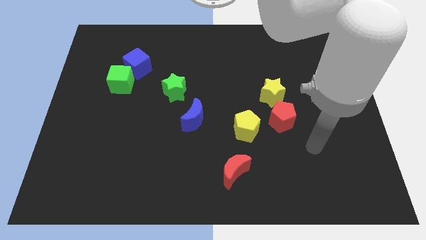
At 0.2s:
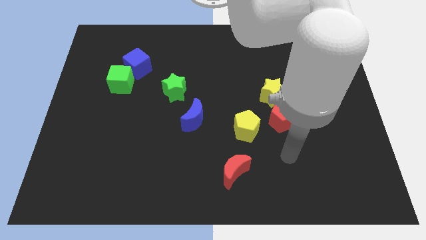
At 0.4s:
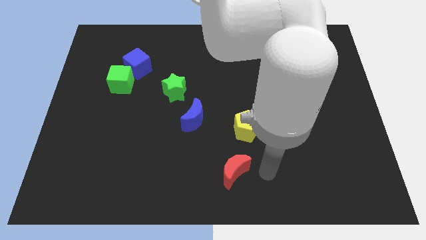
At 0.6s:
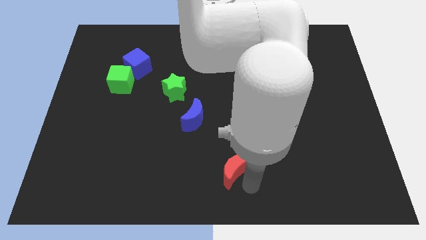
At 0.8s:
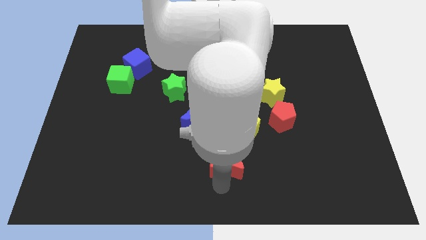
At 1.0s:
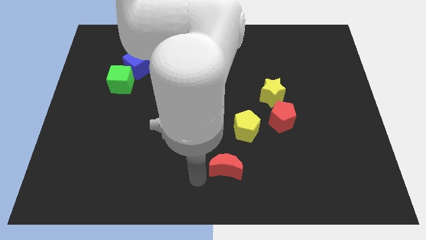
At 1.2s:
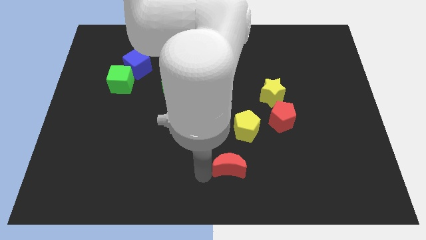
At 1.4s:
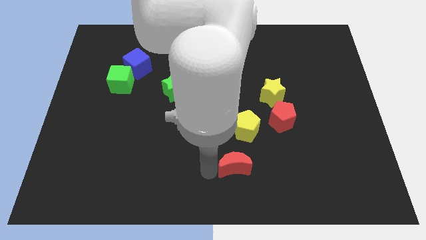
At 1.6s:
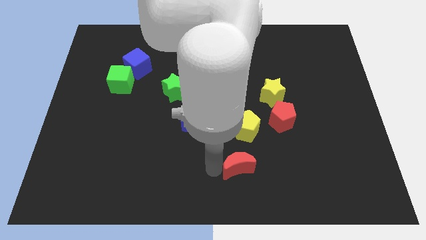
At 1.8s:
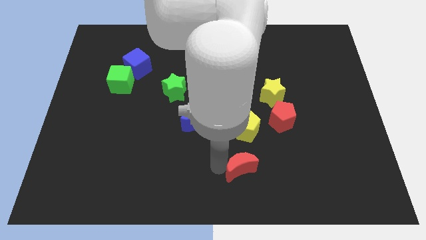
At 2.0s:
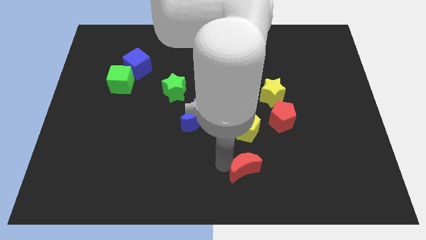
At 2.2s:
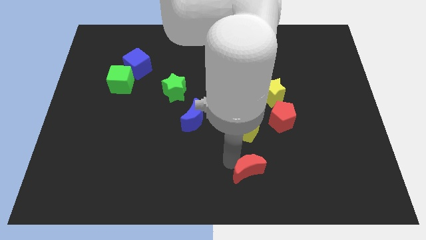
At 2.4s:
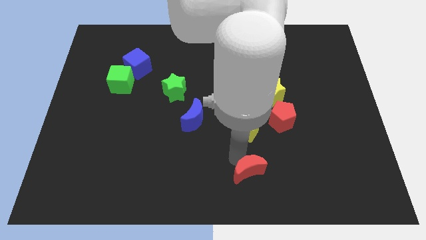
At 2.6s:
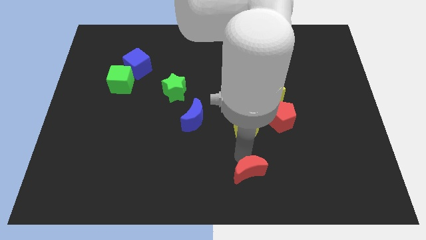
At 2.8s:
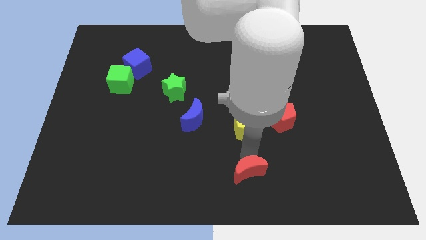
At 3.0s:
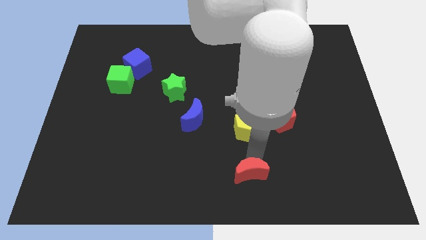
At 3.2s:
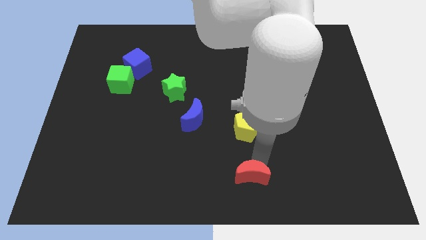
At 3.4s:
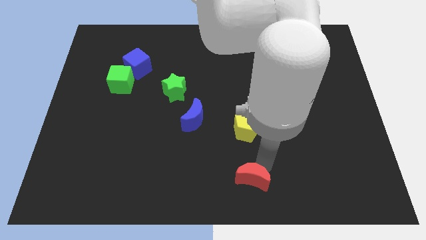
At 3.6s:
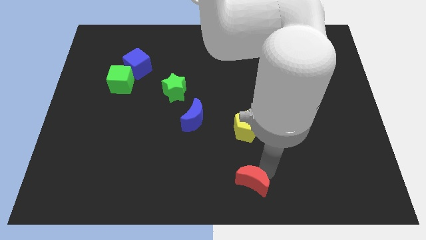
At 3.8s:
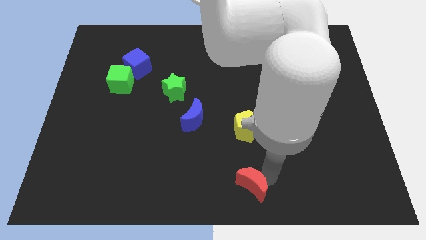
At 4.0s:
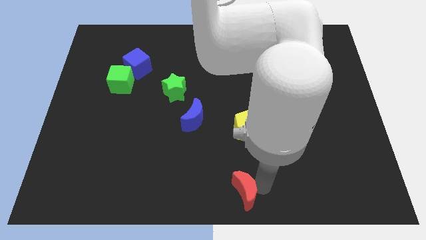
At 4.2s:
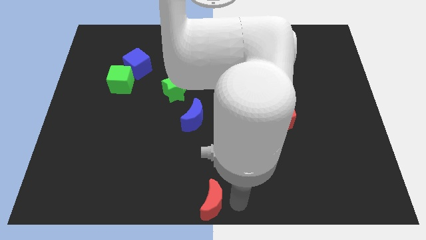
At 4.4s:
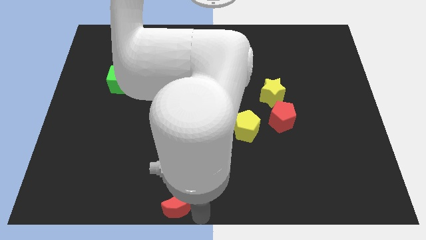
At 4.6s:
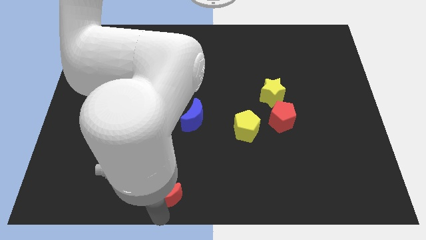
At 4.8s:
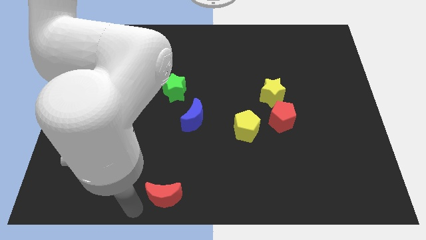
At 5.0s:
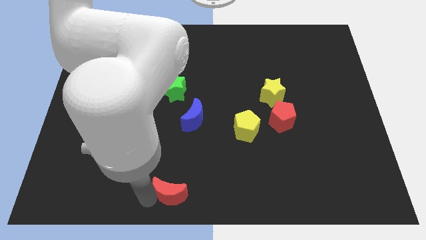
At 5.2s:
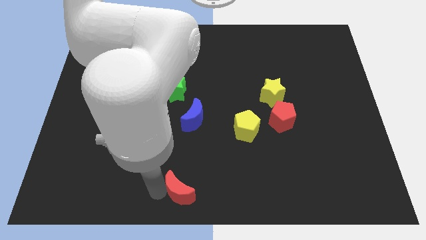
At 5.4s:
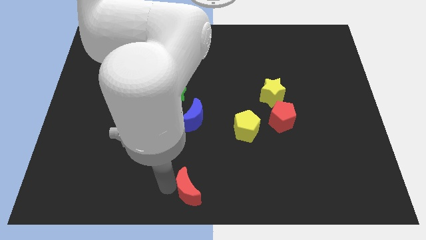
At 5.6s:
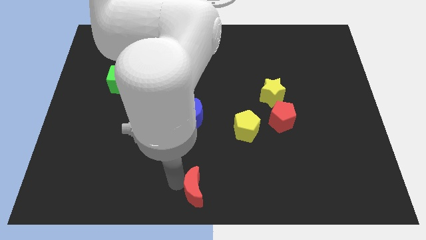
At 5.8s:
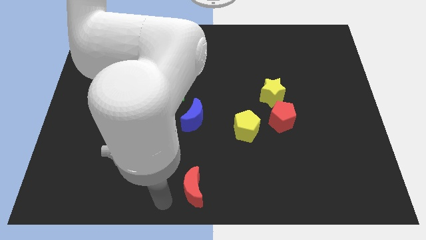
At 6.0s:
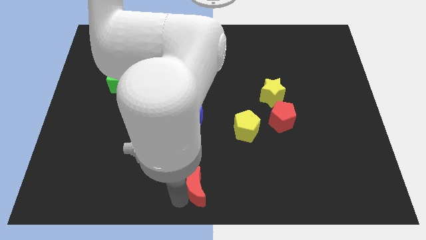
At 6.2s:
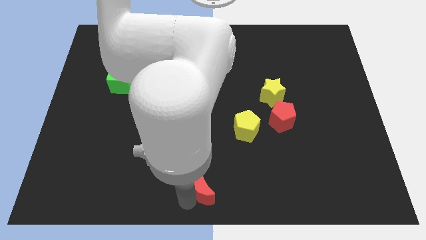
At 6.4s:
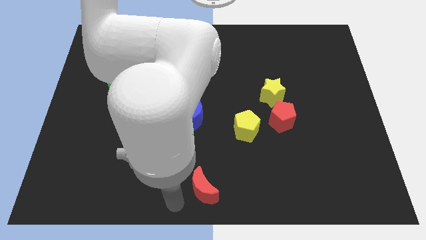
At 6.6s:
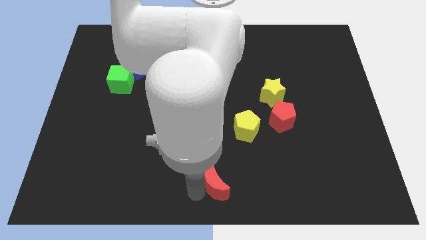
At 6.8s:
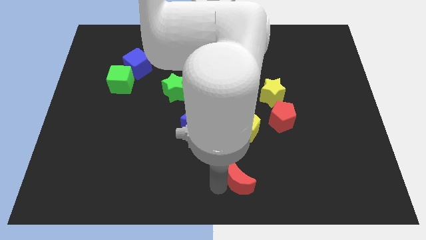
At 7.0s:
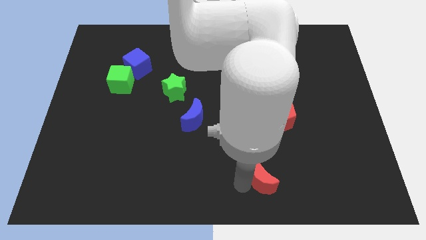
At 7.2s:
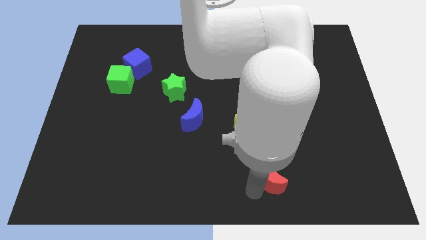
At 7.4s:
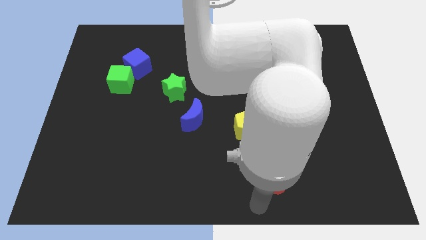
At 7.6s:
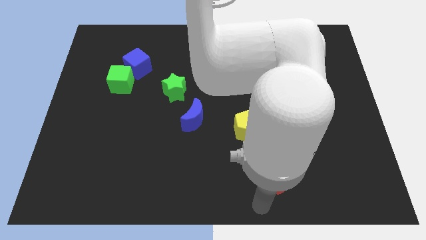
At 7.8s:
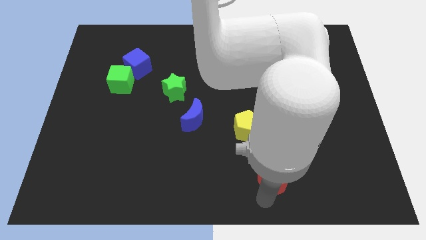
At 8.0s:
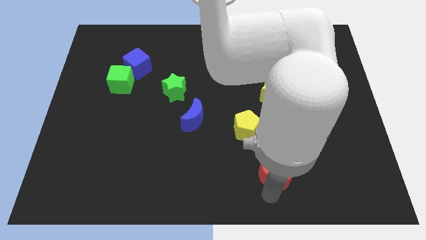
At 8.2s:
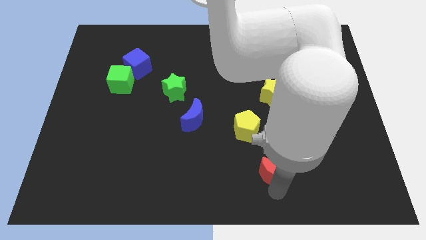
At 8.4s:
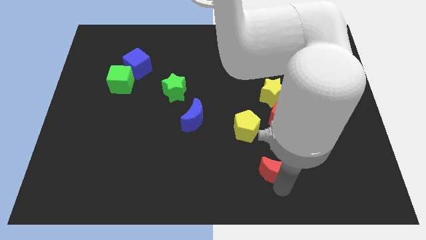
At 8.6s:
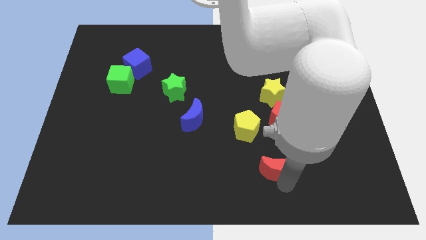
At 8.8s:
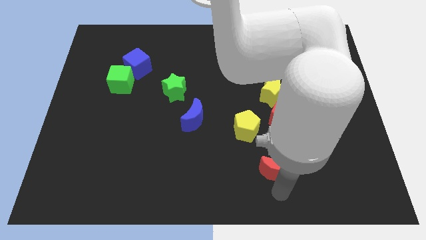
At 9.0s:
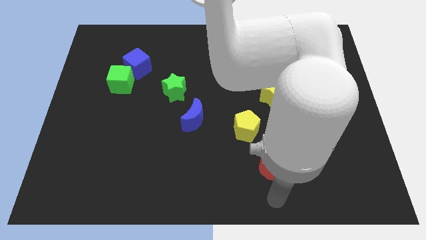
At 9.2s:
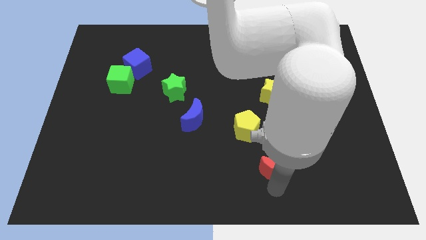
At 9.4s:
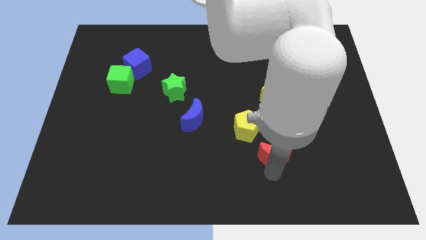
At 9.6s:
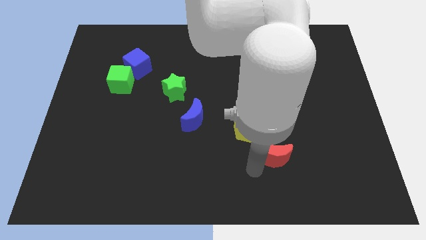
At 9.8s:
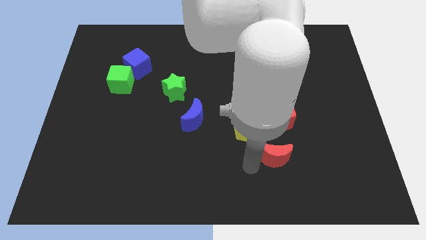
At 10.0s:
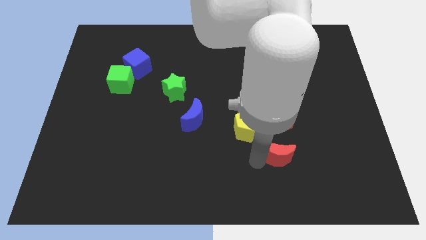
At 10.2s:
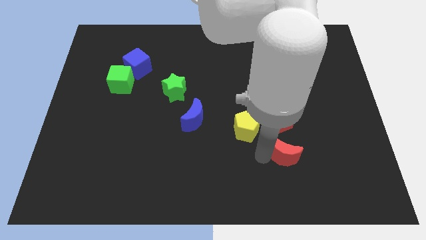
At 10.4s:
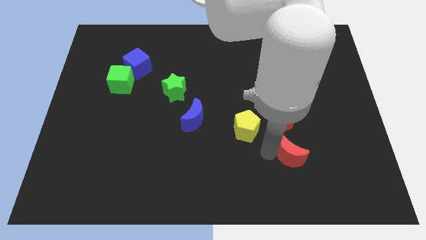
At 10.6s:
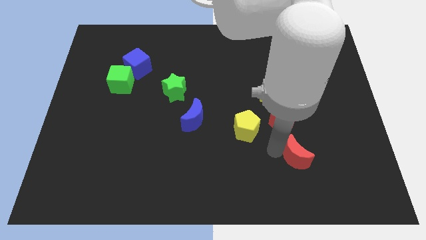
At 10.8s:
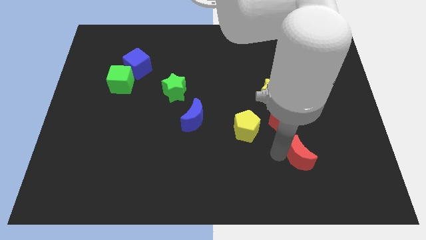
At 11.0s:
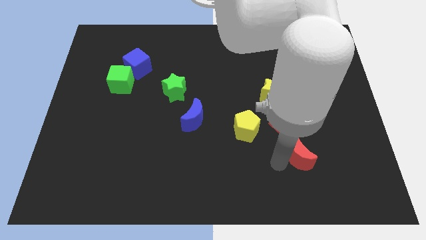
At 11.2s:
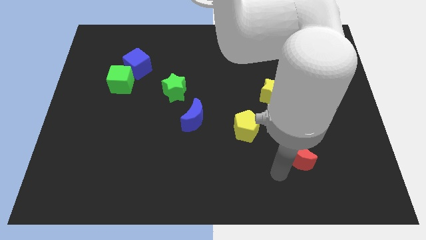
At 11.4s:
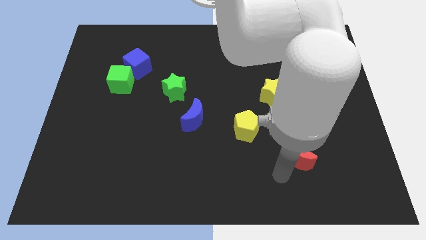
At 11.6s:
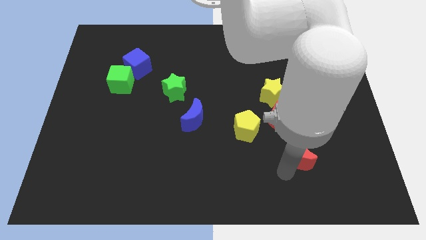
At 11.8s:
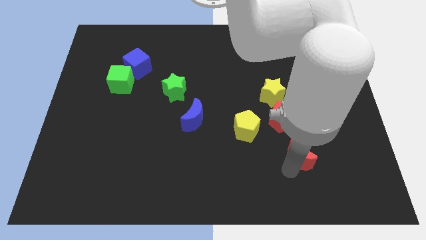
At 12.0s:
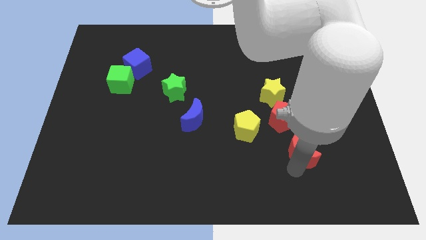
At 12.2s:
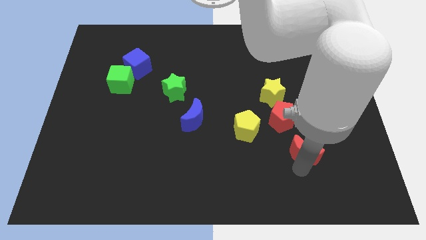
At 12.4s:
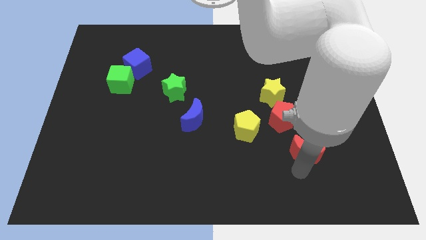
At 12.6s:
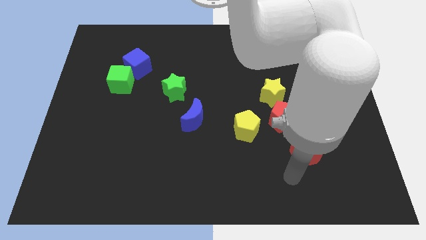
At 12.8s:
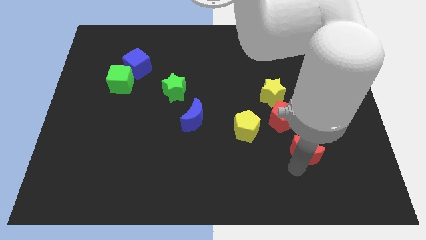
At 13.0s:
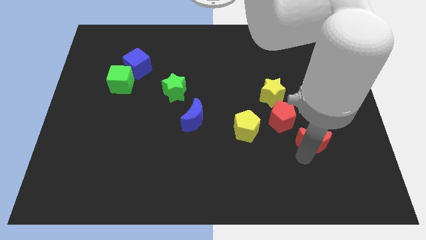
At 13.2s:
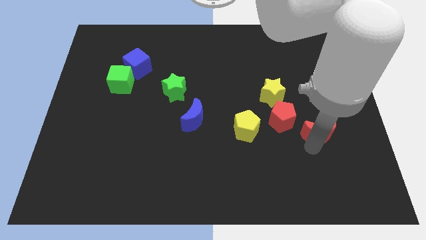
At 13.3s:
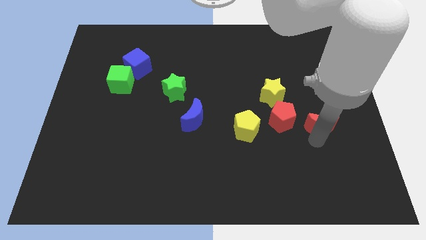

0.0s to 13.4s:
push the red moon diagonally upwards and right

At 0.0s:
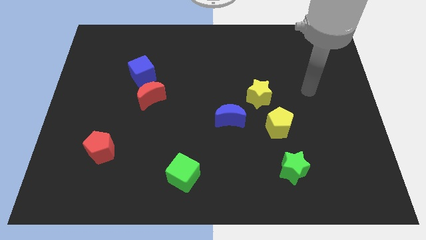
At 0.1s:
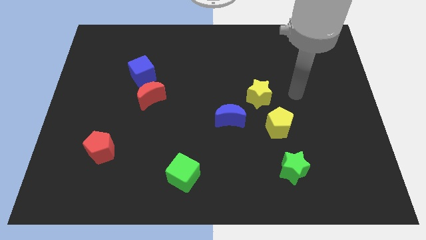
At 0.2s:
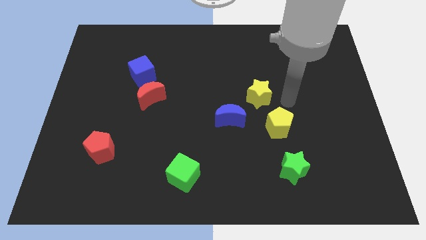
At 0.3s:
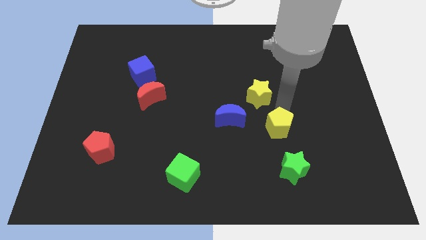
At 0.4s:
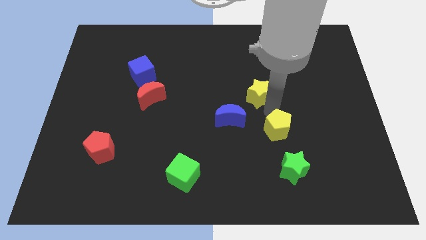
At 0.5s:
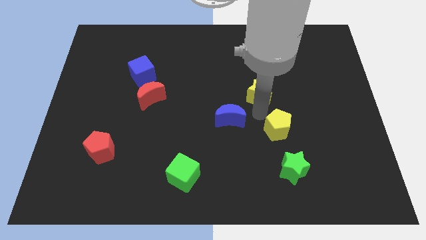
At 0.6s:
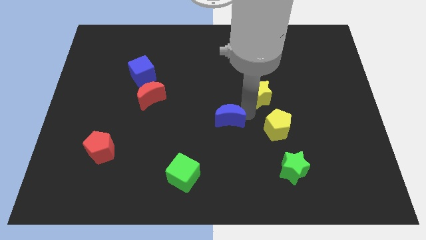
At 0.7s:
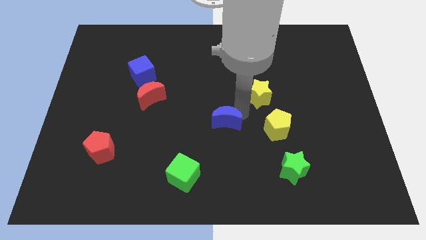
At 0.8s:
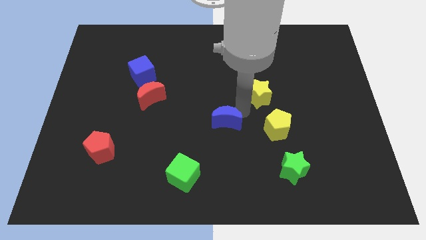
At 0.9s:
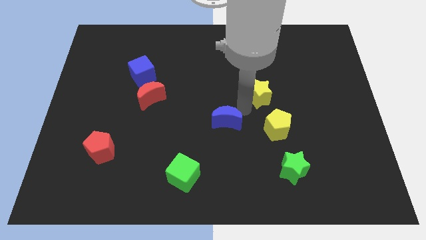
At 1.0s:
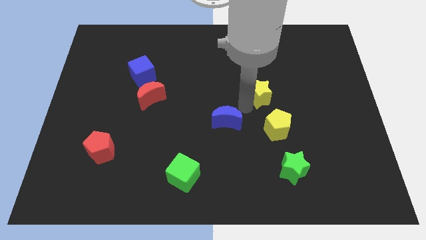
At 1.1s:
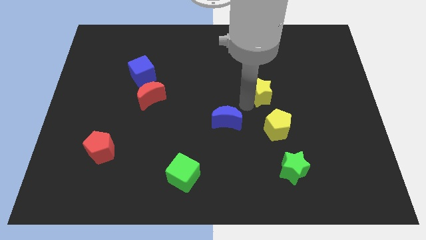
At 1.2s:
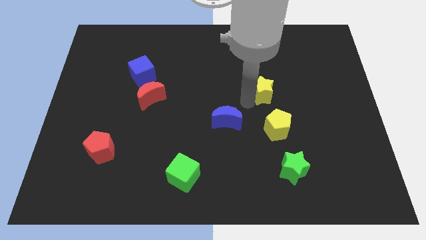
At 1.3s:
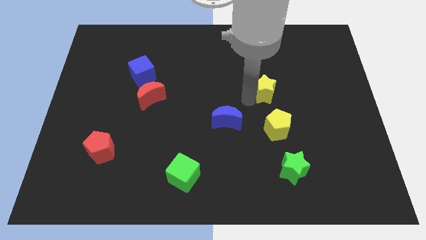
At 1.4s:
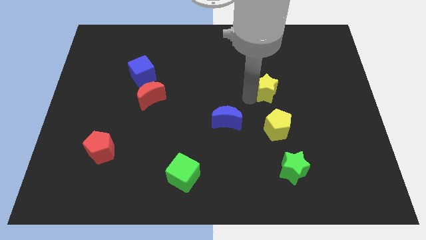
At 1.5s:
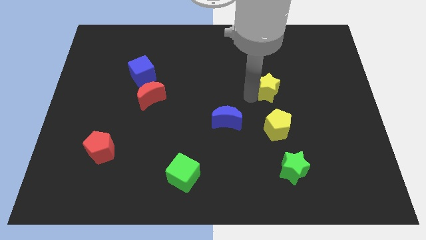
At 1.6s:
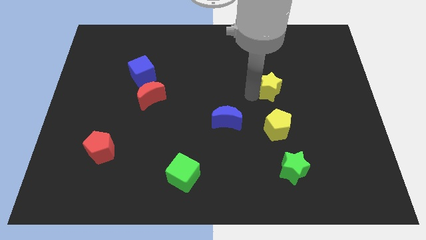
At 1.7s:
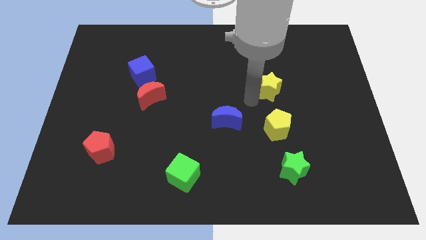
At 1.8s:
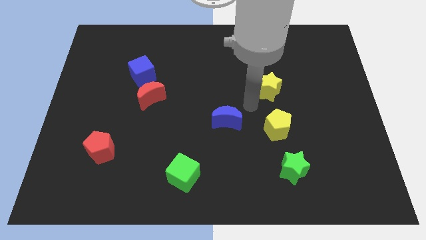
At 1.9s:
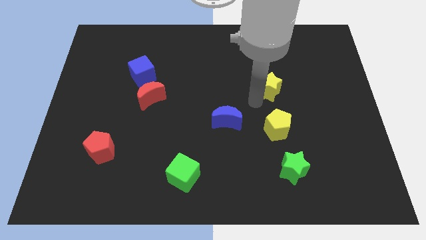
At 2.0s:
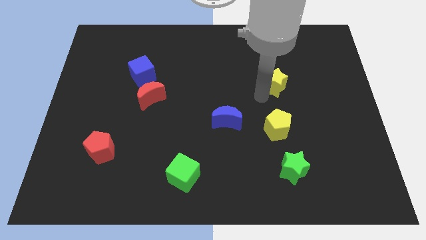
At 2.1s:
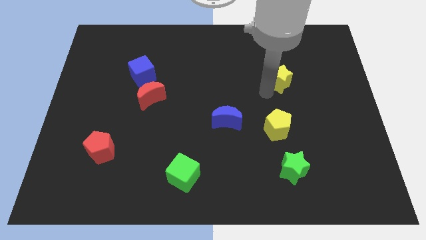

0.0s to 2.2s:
push the yellow star a bit upwards and to the right diagonally
